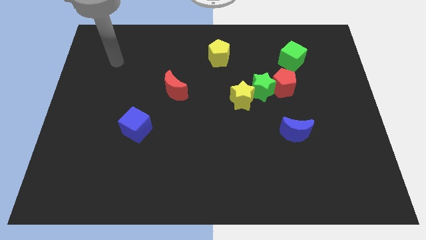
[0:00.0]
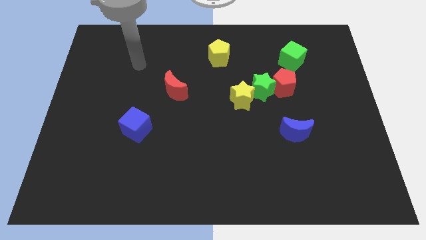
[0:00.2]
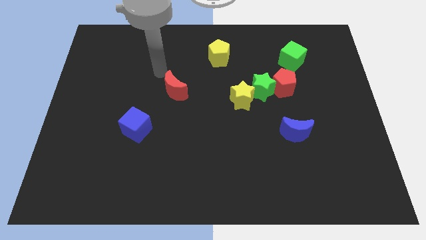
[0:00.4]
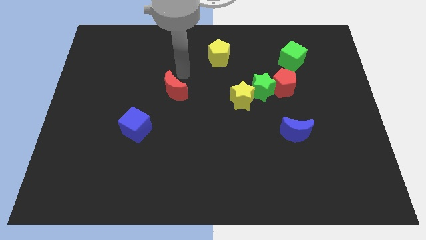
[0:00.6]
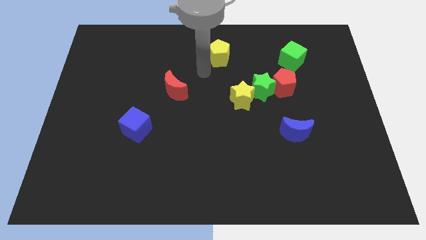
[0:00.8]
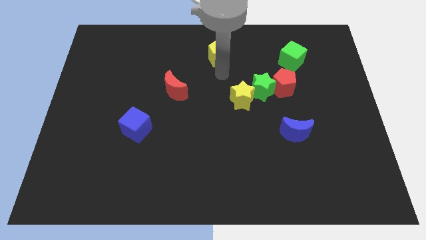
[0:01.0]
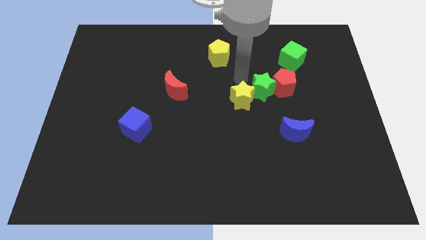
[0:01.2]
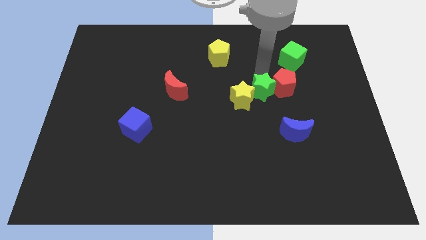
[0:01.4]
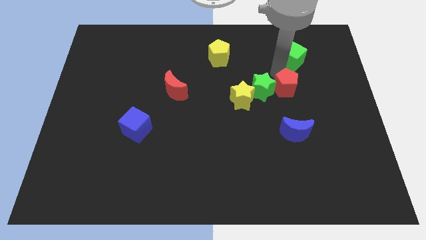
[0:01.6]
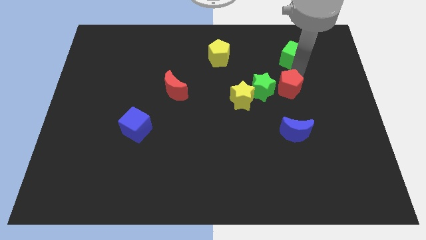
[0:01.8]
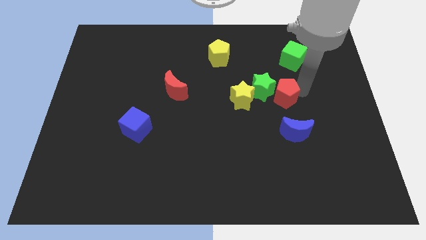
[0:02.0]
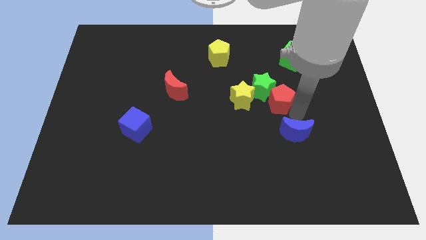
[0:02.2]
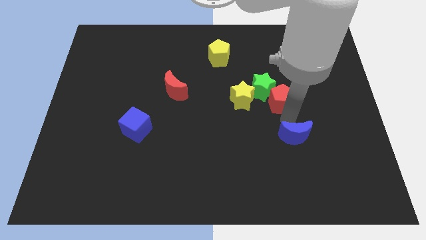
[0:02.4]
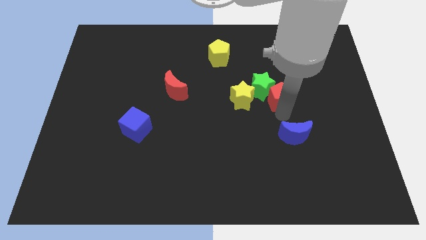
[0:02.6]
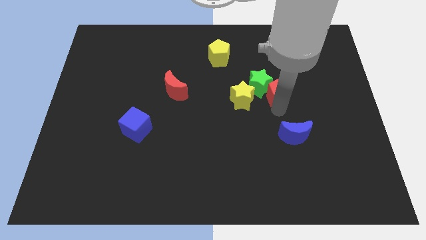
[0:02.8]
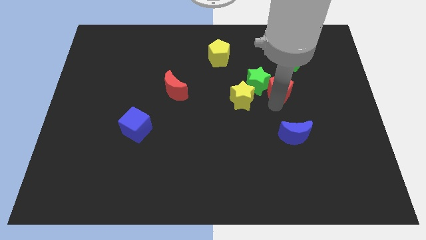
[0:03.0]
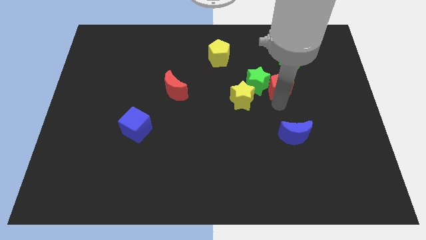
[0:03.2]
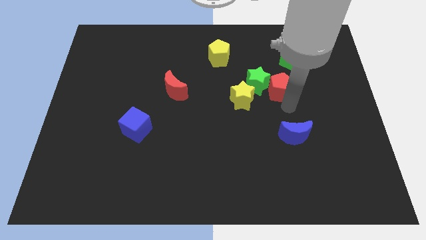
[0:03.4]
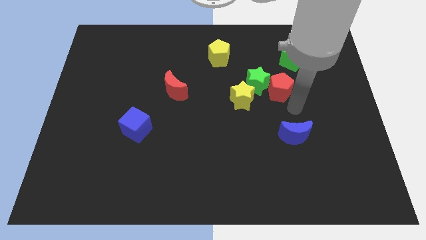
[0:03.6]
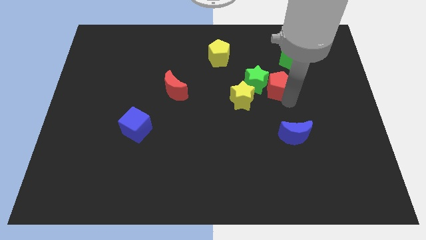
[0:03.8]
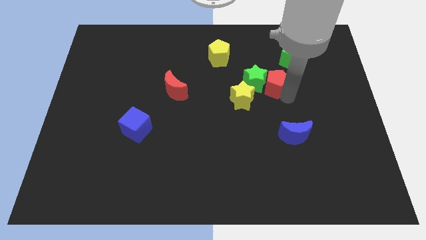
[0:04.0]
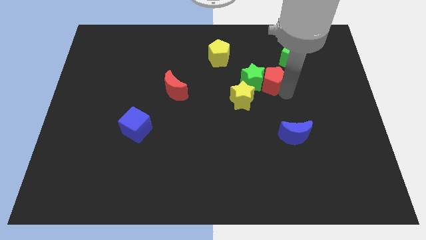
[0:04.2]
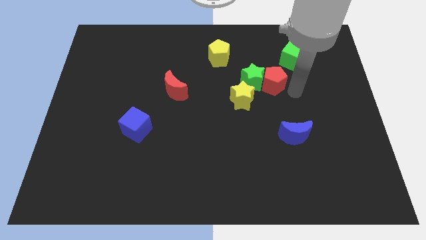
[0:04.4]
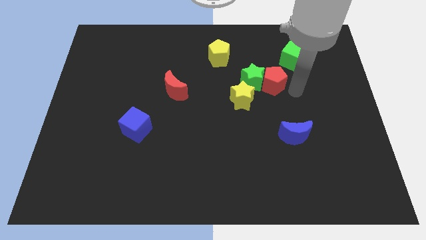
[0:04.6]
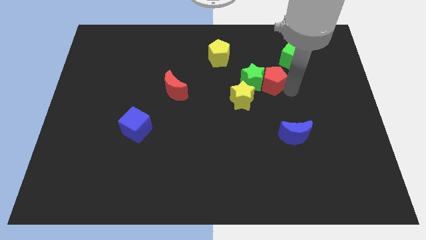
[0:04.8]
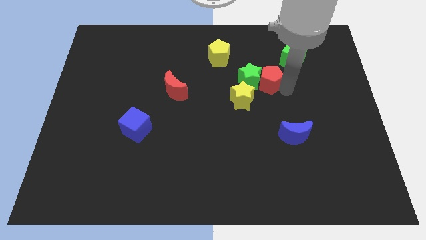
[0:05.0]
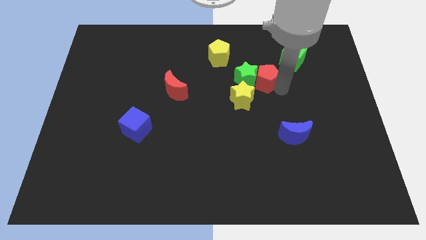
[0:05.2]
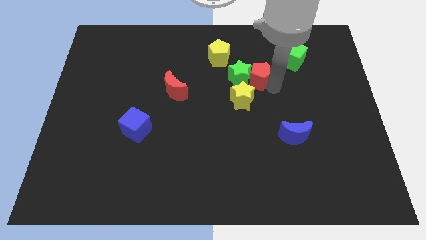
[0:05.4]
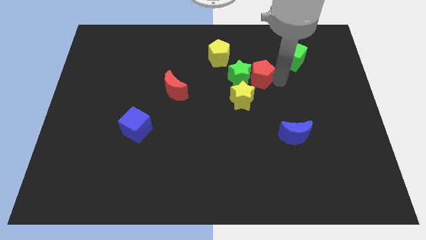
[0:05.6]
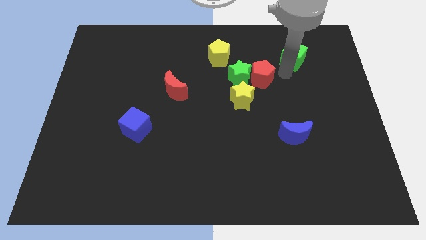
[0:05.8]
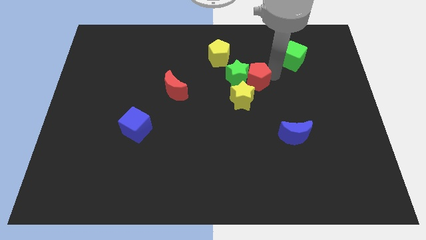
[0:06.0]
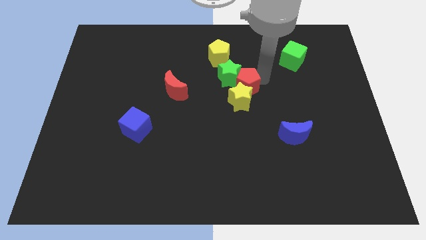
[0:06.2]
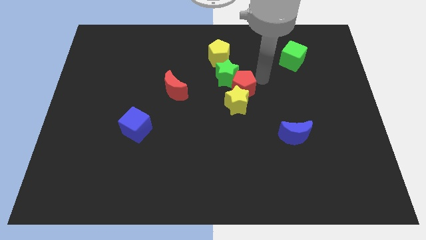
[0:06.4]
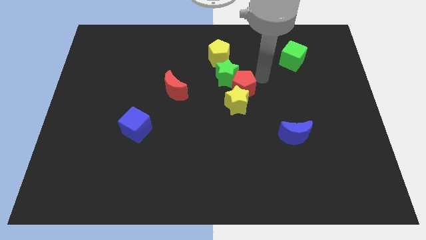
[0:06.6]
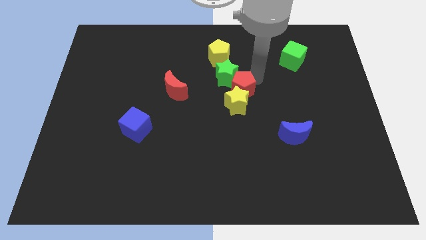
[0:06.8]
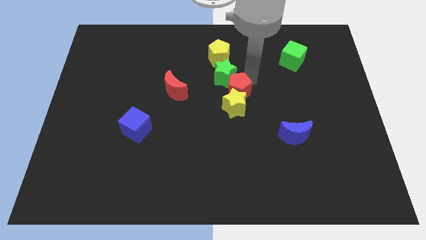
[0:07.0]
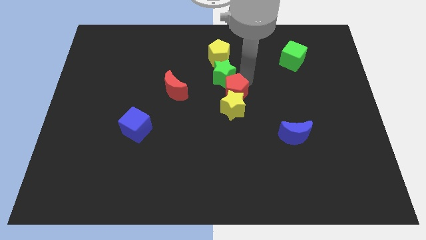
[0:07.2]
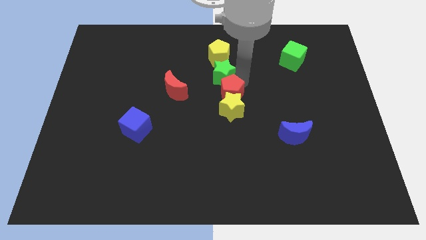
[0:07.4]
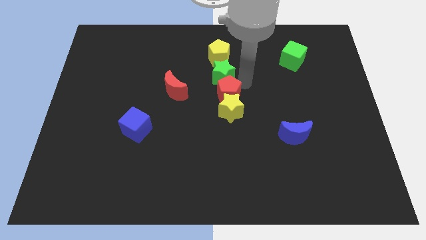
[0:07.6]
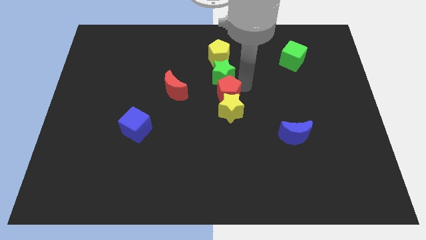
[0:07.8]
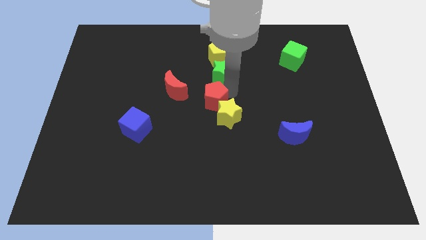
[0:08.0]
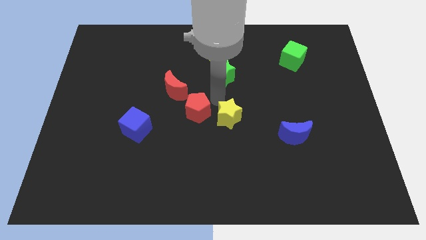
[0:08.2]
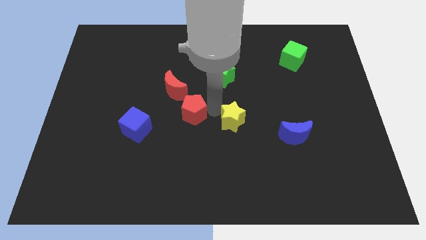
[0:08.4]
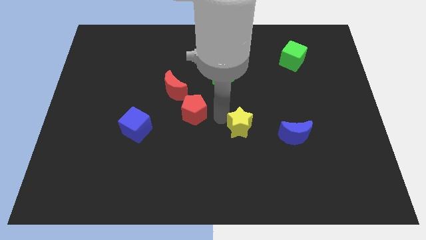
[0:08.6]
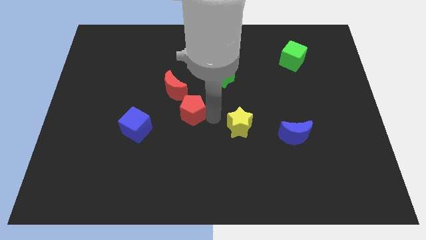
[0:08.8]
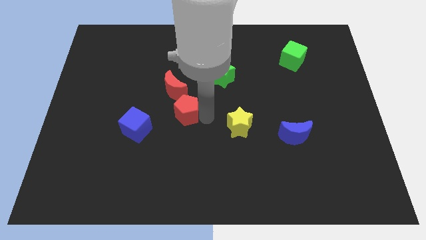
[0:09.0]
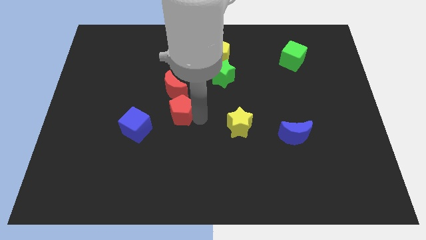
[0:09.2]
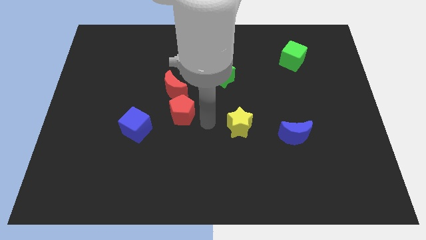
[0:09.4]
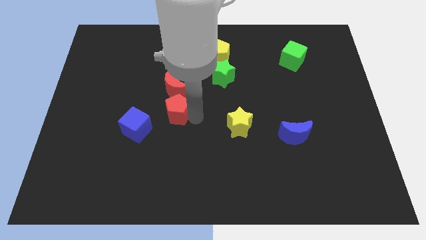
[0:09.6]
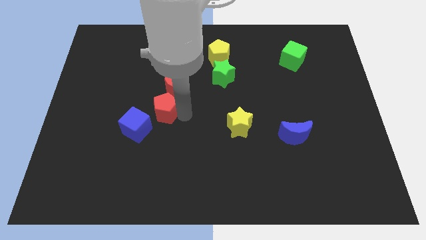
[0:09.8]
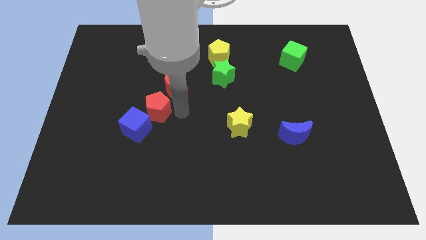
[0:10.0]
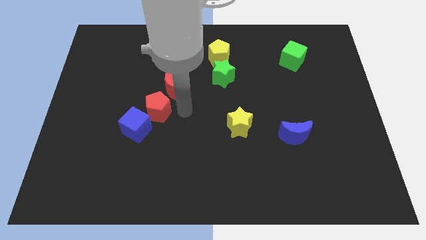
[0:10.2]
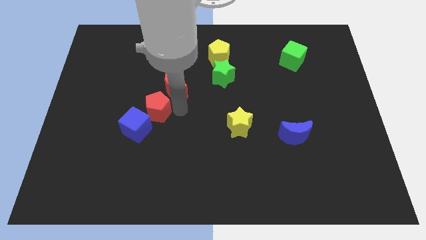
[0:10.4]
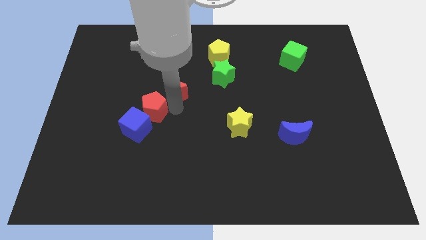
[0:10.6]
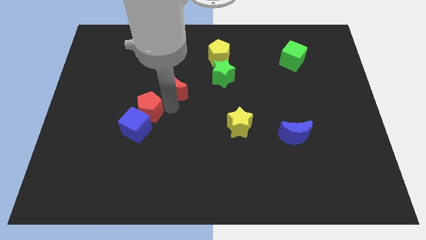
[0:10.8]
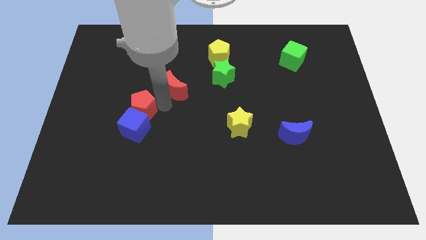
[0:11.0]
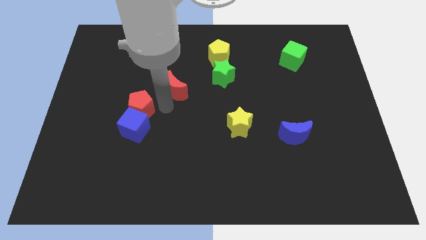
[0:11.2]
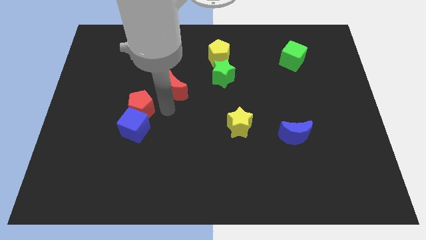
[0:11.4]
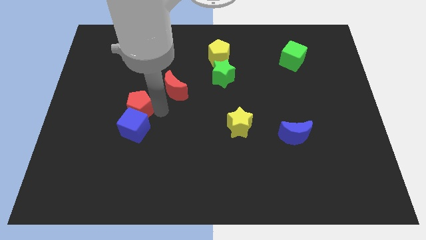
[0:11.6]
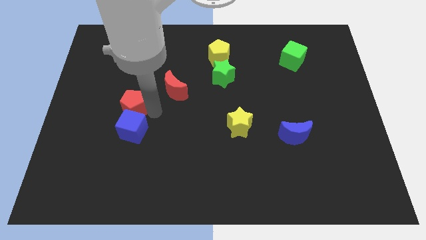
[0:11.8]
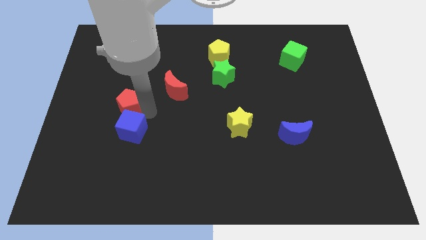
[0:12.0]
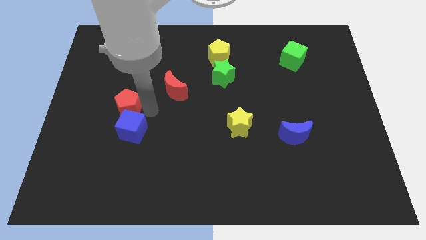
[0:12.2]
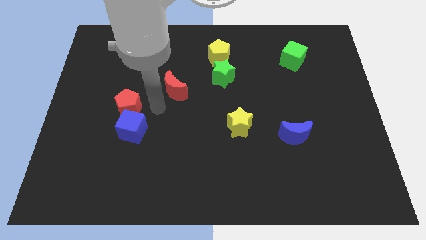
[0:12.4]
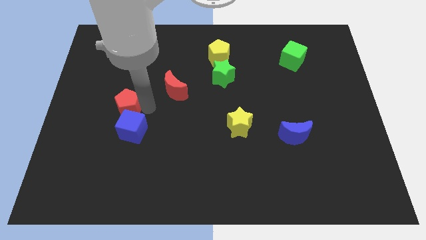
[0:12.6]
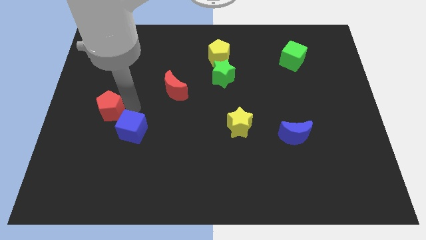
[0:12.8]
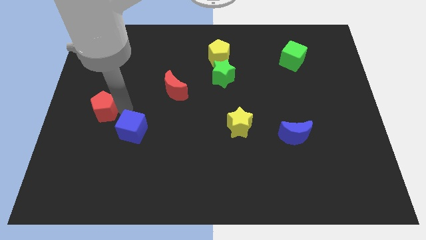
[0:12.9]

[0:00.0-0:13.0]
put the red pentagon to the center left
